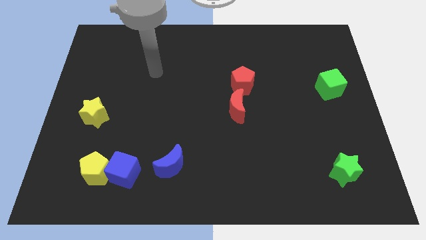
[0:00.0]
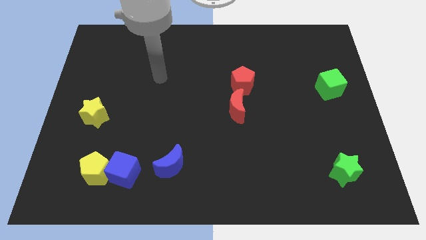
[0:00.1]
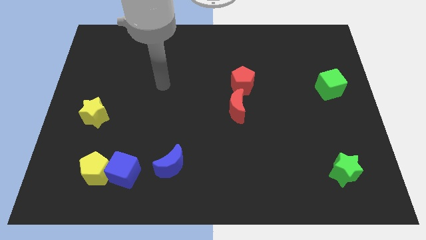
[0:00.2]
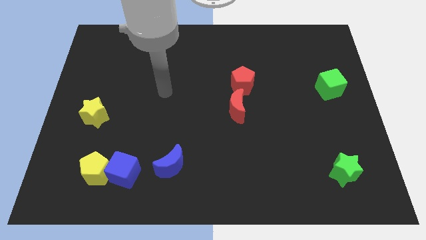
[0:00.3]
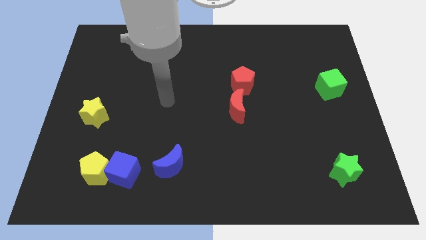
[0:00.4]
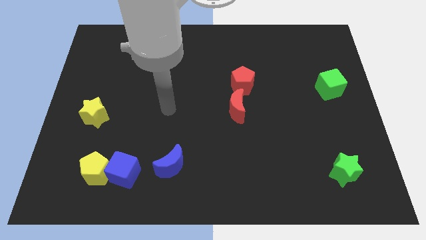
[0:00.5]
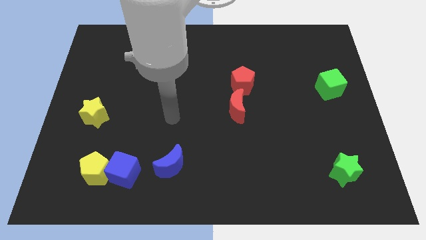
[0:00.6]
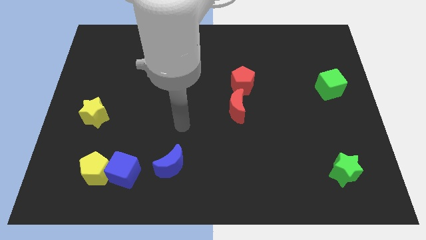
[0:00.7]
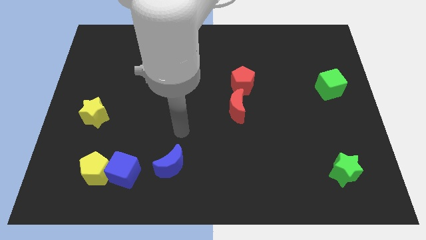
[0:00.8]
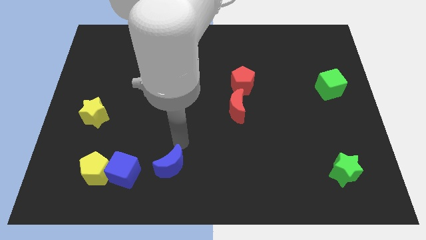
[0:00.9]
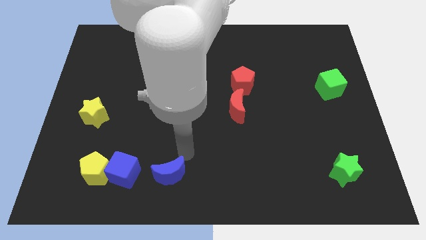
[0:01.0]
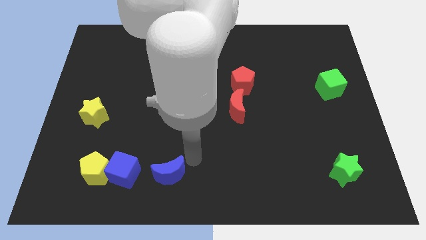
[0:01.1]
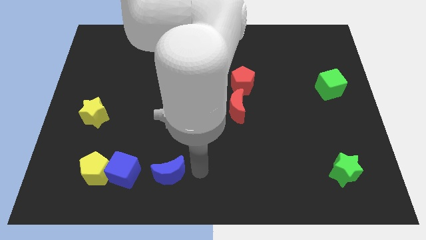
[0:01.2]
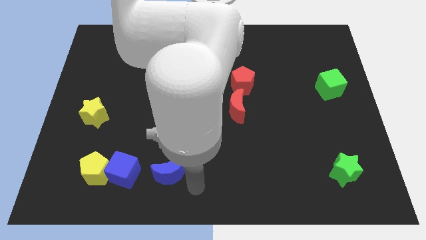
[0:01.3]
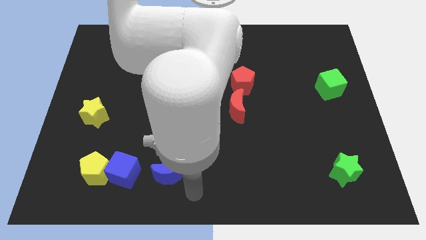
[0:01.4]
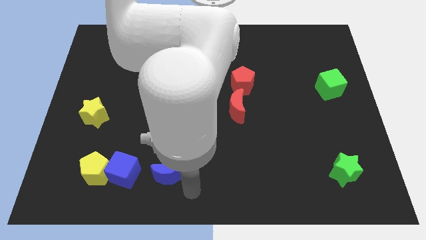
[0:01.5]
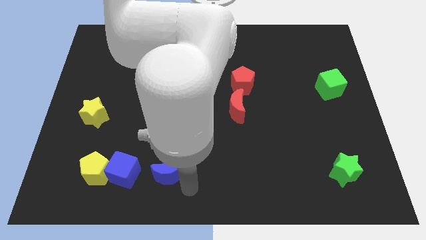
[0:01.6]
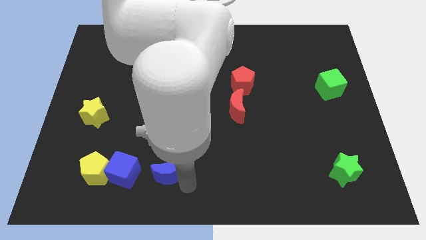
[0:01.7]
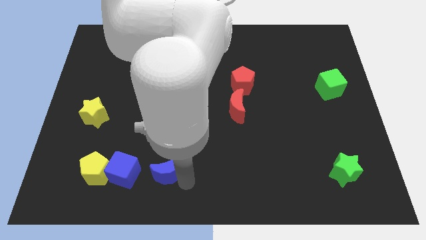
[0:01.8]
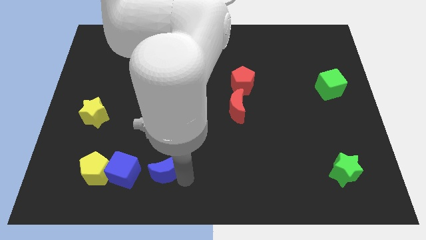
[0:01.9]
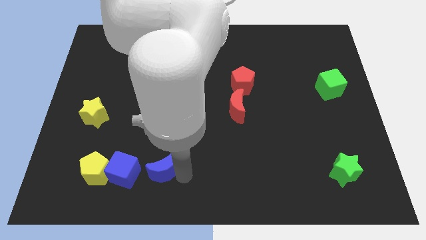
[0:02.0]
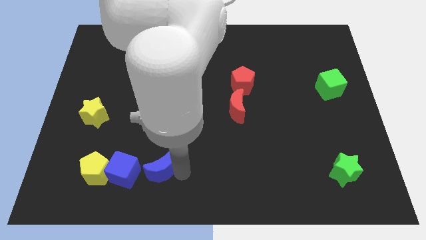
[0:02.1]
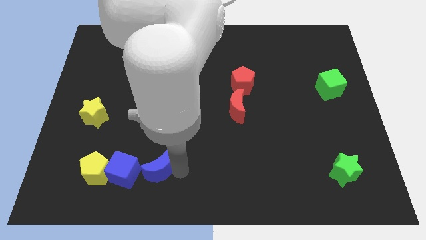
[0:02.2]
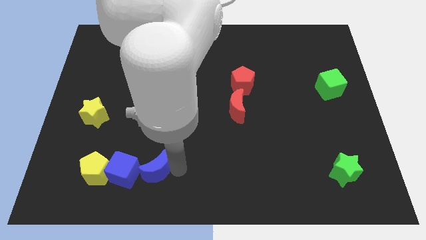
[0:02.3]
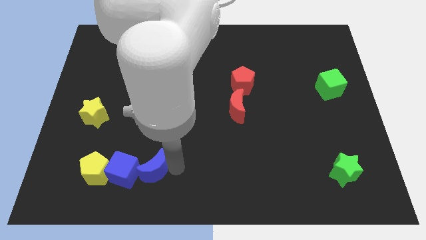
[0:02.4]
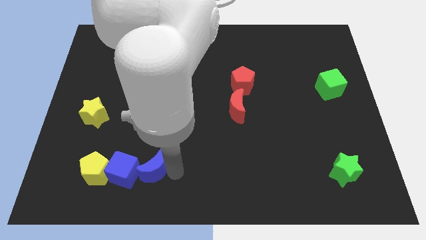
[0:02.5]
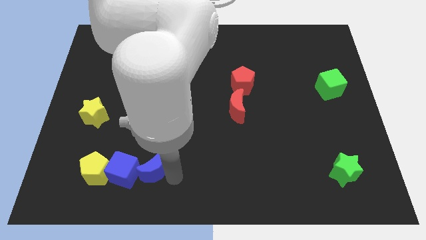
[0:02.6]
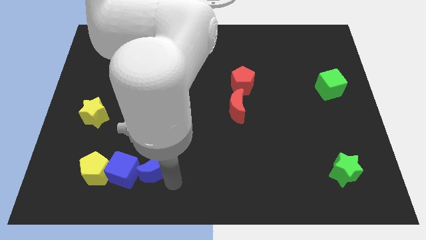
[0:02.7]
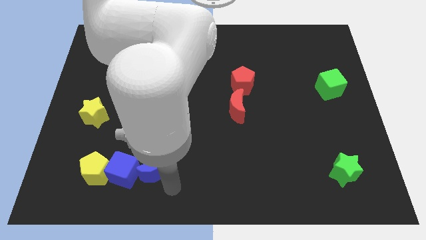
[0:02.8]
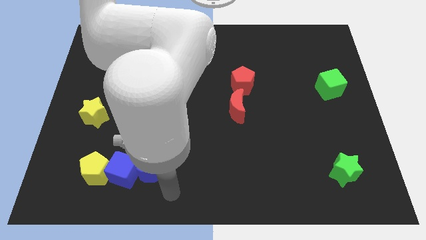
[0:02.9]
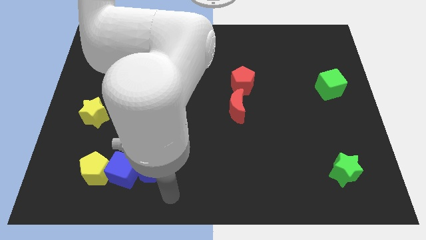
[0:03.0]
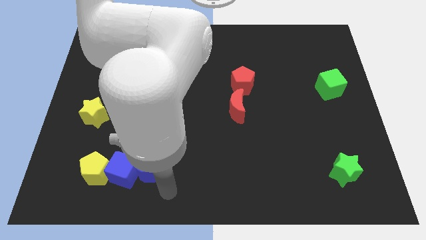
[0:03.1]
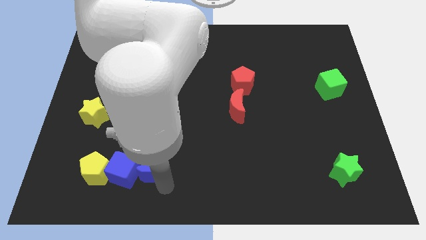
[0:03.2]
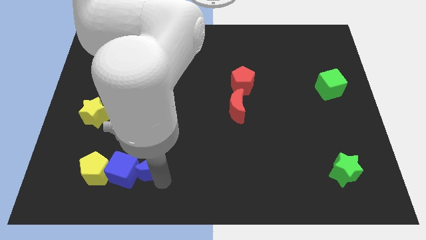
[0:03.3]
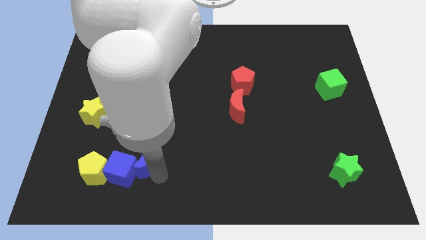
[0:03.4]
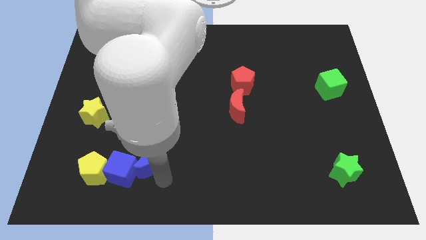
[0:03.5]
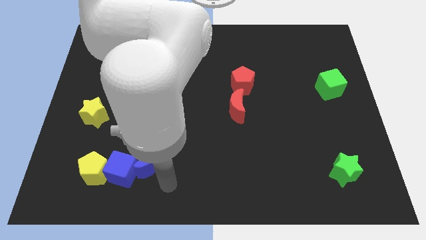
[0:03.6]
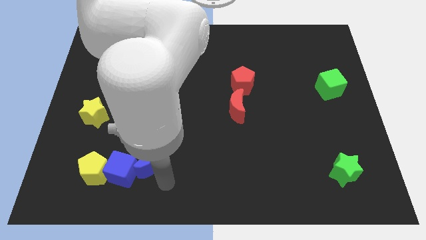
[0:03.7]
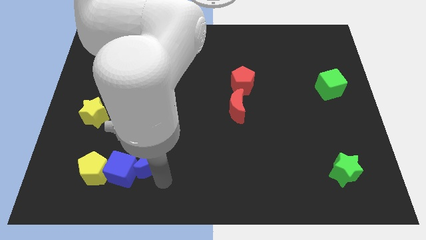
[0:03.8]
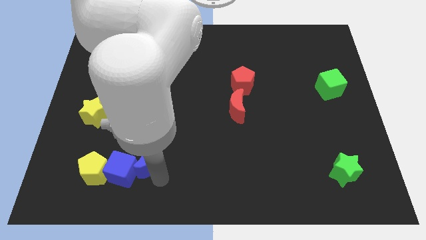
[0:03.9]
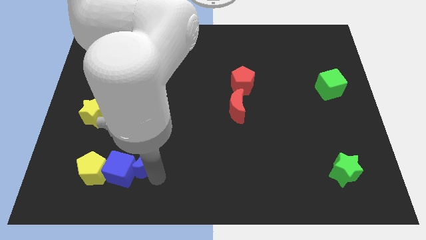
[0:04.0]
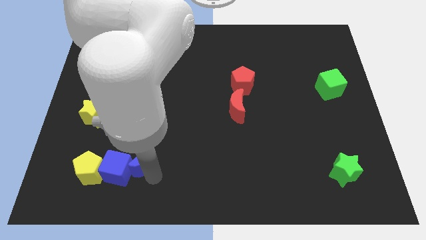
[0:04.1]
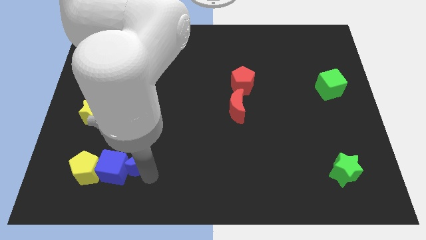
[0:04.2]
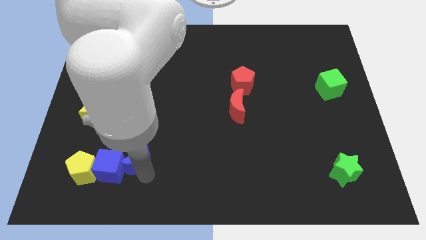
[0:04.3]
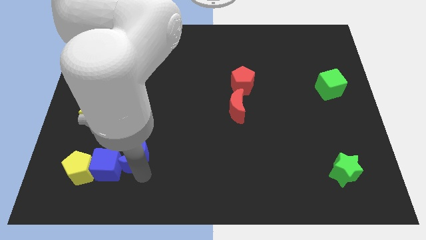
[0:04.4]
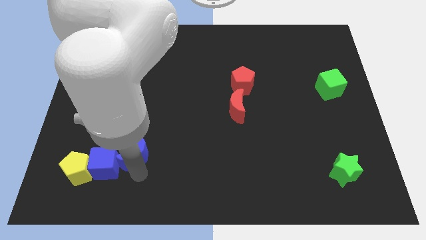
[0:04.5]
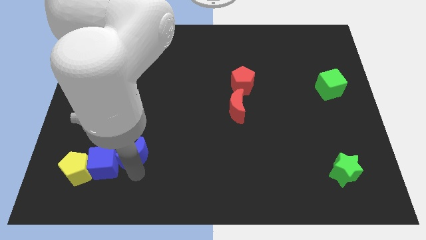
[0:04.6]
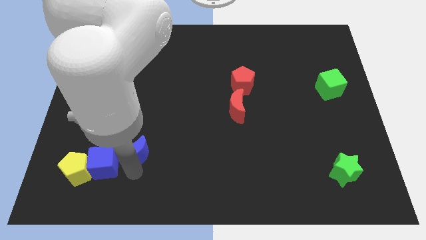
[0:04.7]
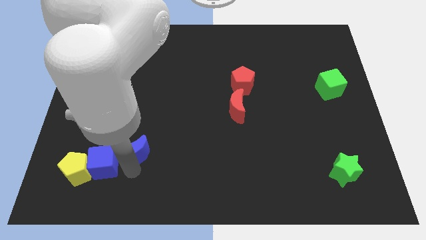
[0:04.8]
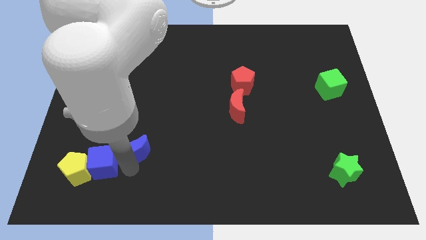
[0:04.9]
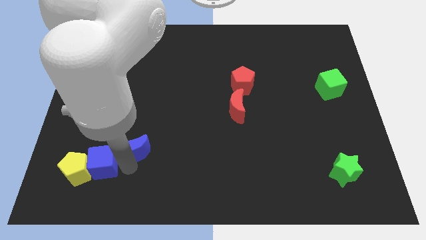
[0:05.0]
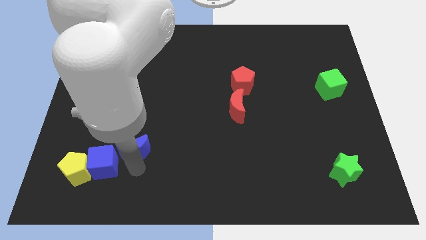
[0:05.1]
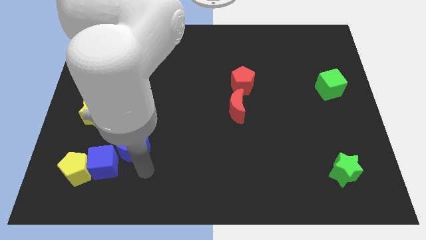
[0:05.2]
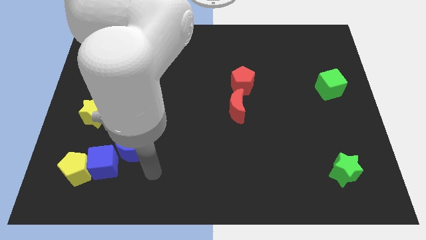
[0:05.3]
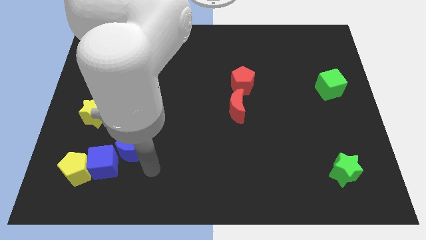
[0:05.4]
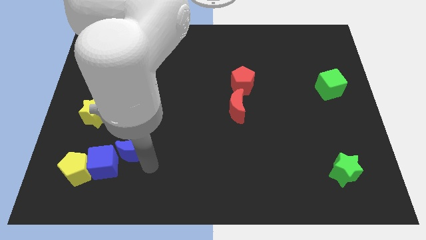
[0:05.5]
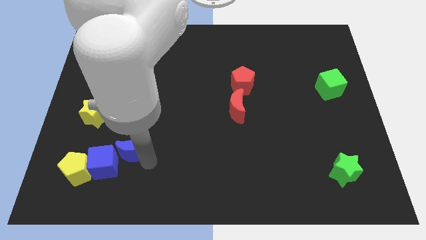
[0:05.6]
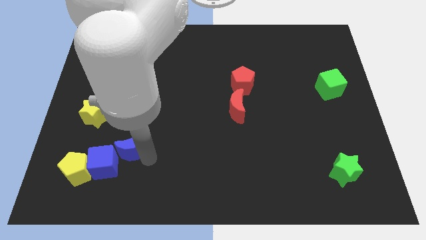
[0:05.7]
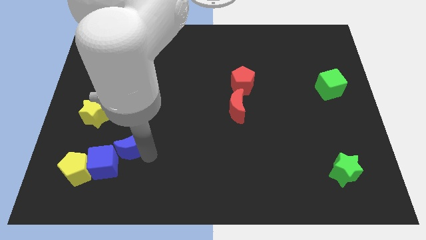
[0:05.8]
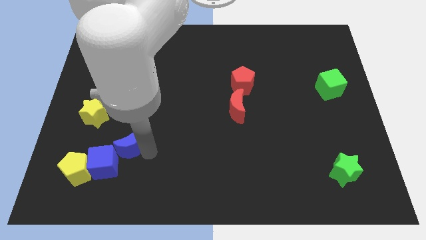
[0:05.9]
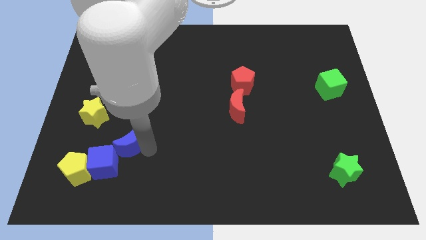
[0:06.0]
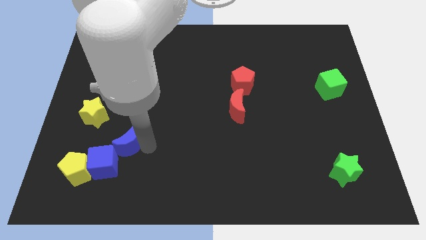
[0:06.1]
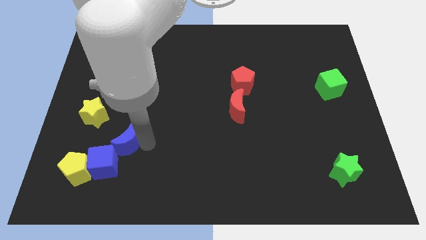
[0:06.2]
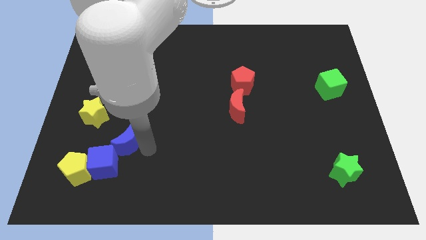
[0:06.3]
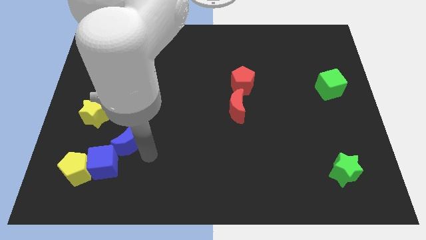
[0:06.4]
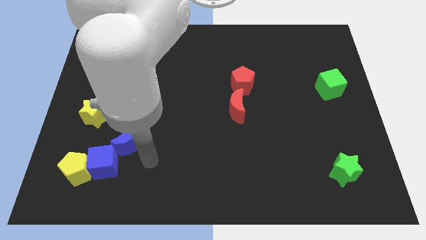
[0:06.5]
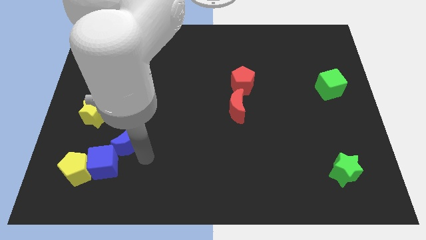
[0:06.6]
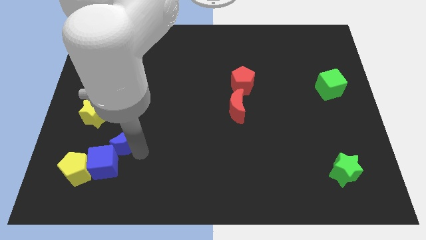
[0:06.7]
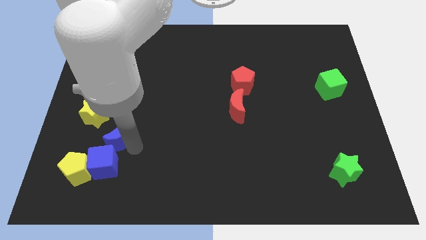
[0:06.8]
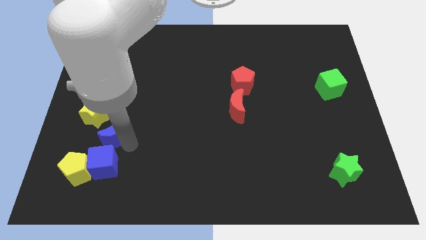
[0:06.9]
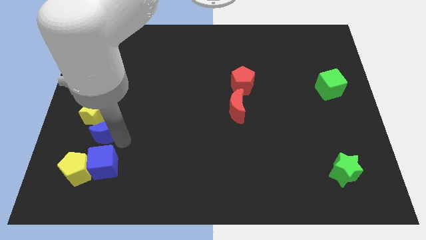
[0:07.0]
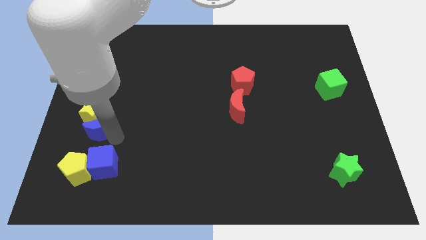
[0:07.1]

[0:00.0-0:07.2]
move the blue moon close to the yellow star

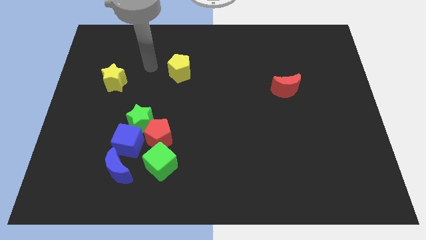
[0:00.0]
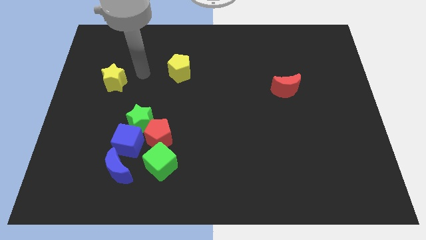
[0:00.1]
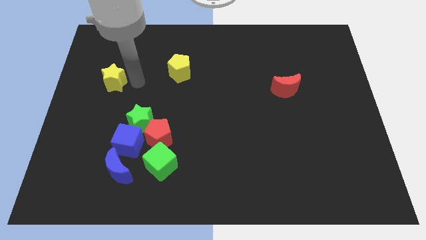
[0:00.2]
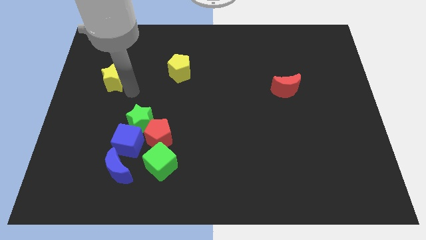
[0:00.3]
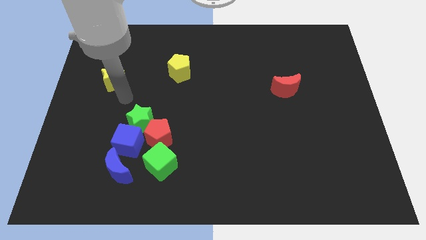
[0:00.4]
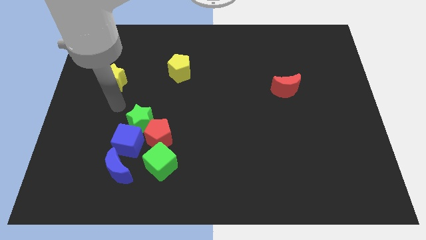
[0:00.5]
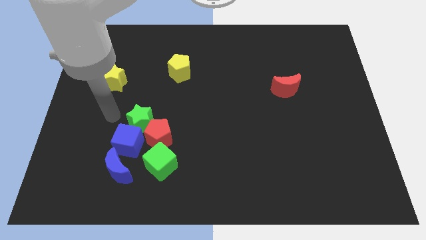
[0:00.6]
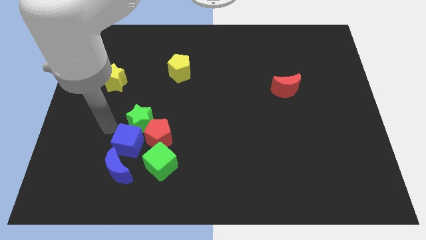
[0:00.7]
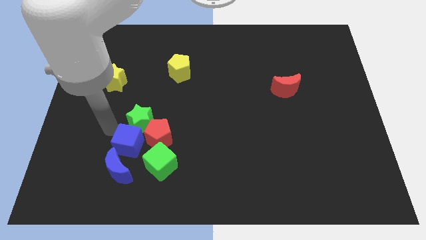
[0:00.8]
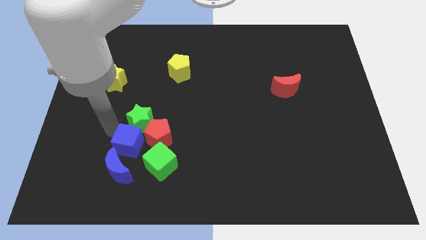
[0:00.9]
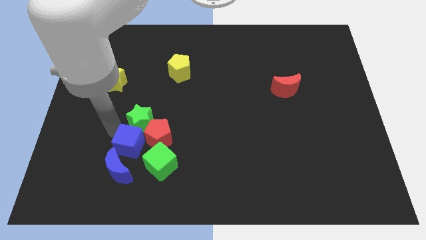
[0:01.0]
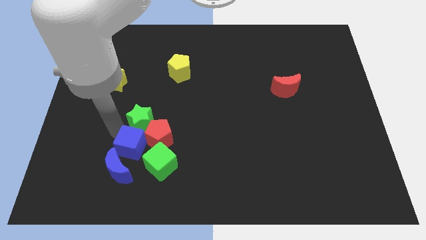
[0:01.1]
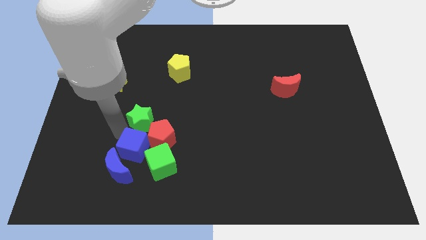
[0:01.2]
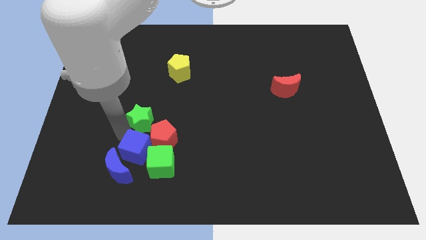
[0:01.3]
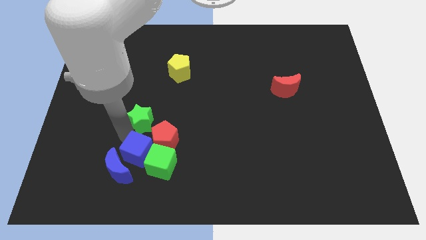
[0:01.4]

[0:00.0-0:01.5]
push the blue cube towards the green cube
